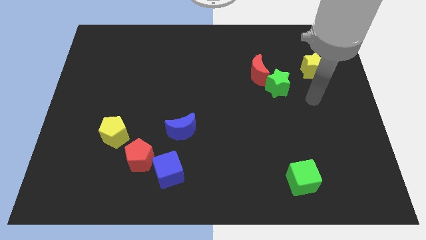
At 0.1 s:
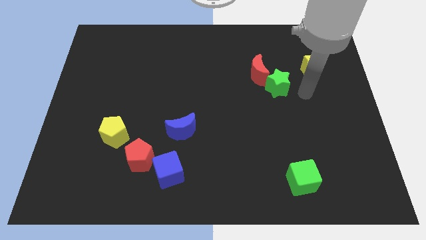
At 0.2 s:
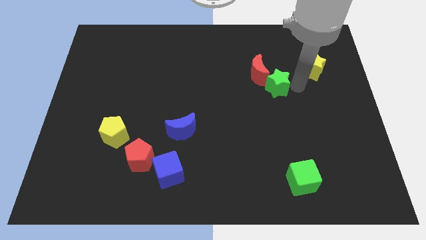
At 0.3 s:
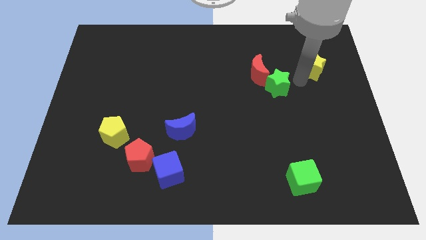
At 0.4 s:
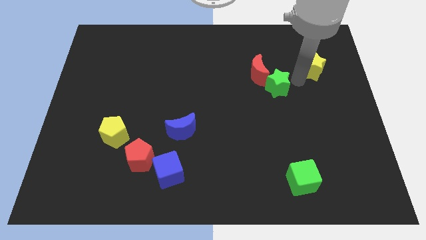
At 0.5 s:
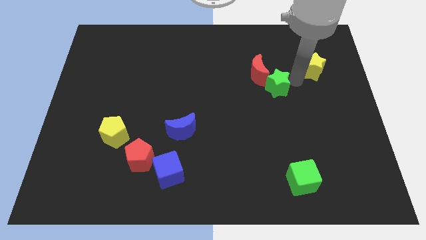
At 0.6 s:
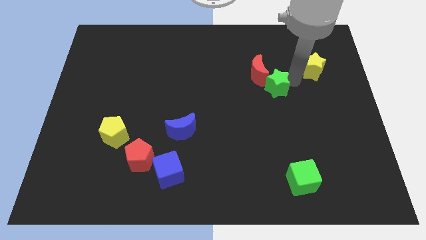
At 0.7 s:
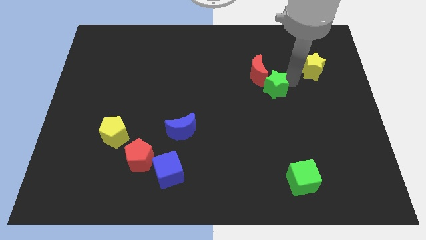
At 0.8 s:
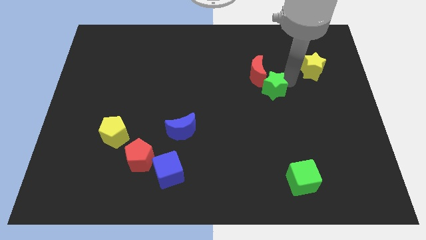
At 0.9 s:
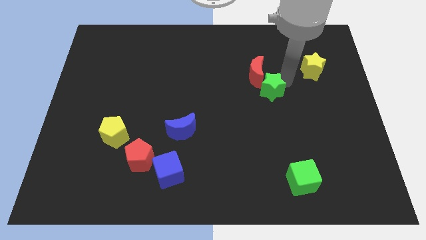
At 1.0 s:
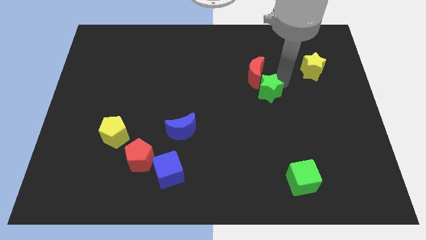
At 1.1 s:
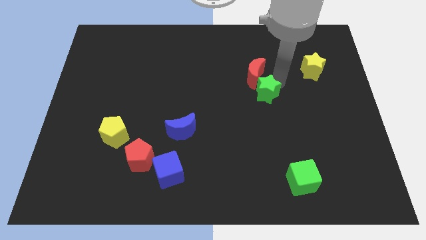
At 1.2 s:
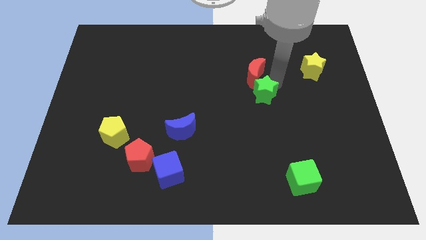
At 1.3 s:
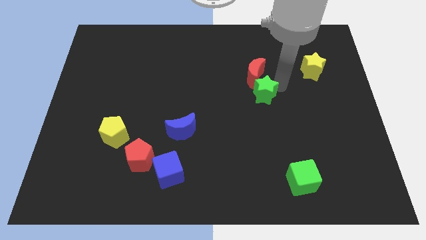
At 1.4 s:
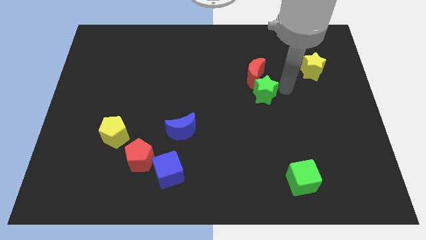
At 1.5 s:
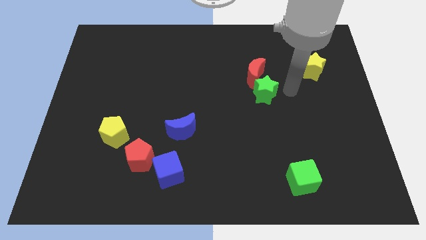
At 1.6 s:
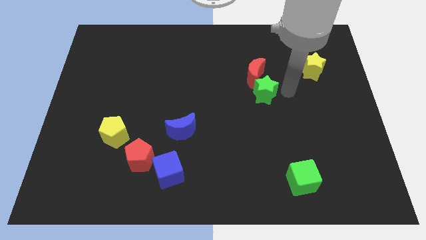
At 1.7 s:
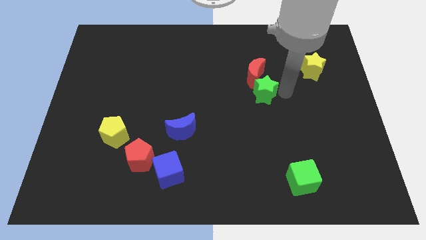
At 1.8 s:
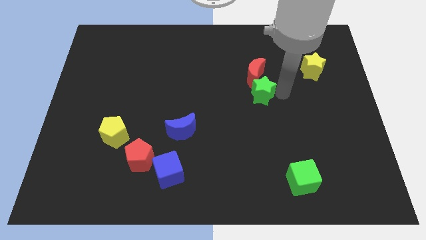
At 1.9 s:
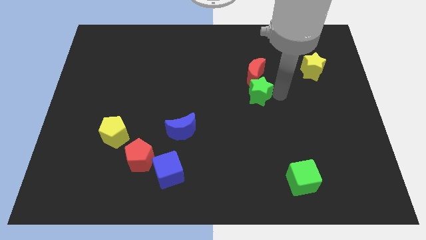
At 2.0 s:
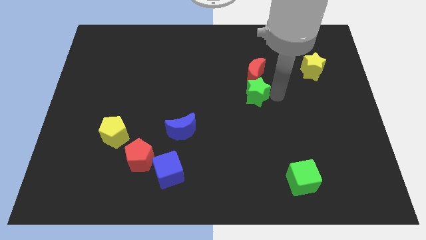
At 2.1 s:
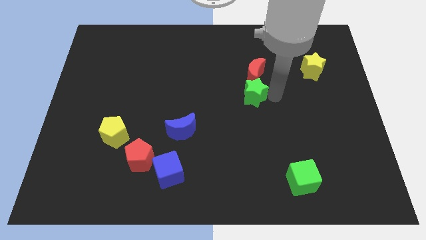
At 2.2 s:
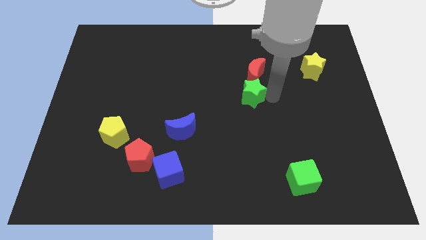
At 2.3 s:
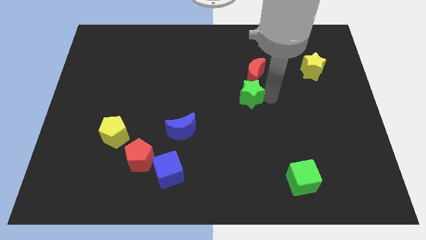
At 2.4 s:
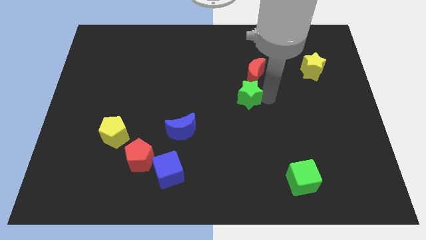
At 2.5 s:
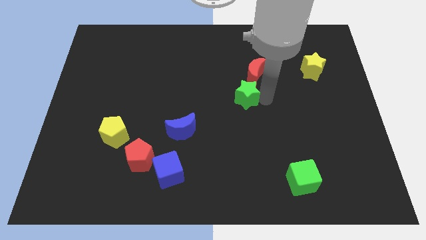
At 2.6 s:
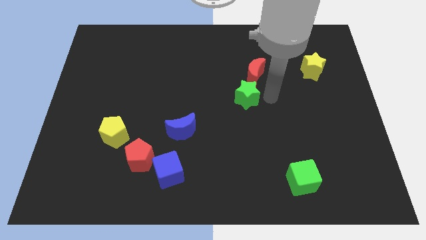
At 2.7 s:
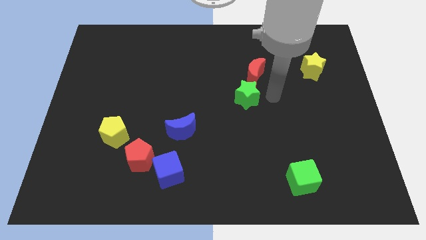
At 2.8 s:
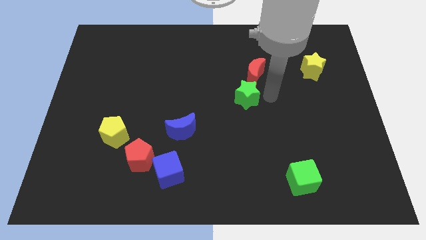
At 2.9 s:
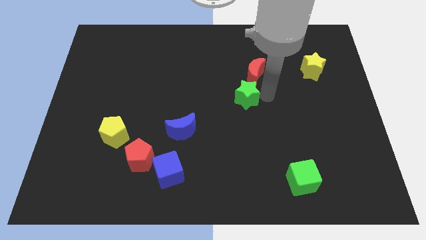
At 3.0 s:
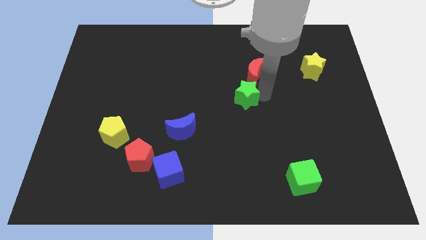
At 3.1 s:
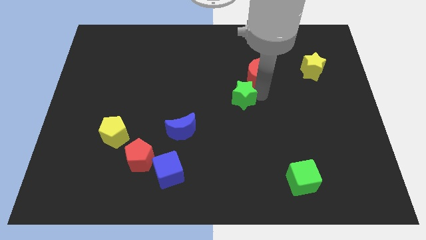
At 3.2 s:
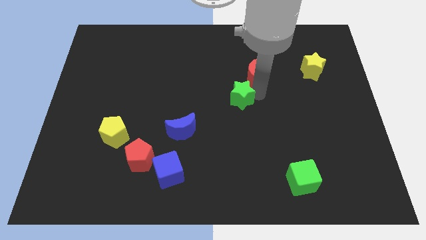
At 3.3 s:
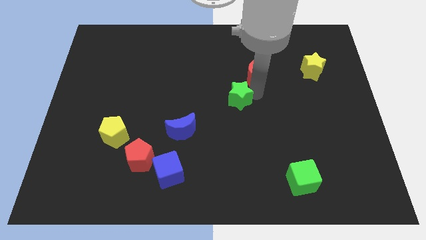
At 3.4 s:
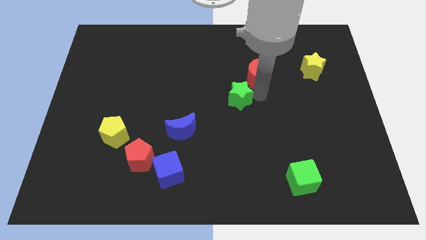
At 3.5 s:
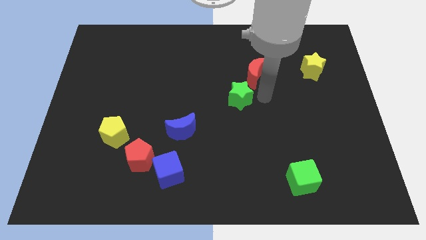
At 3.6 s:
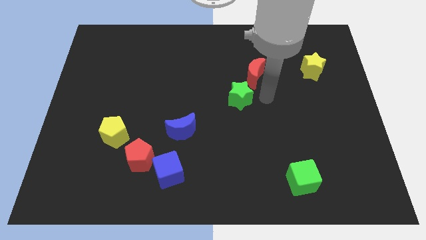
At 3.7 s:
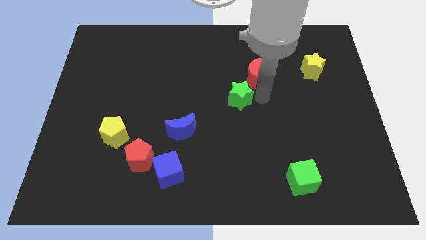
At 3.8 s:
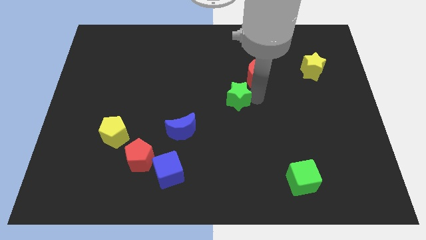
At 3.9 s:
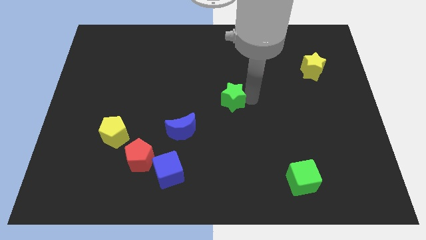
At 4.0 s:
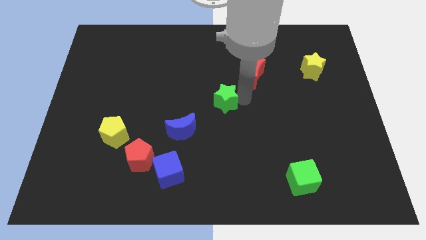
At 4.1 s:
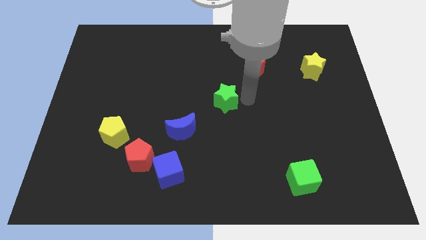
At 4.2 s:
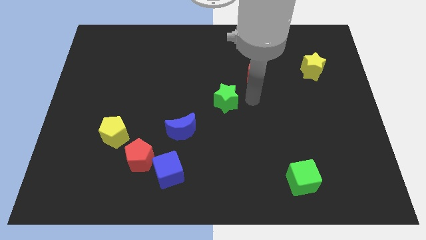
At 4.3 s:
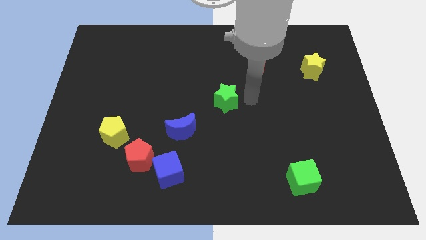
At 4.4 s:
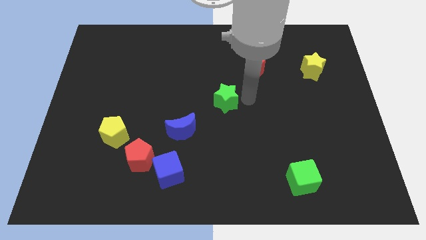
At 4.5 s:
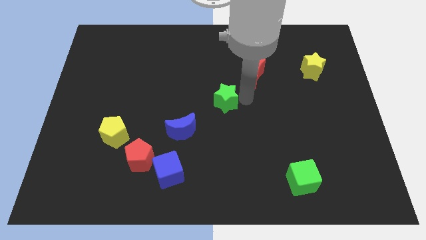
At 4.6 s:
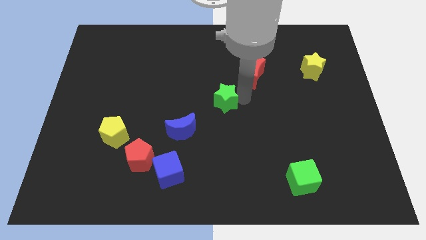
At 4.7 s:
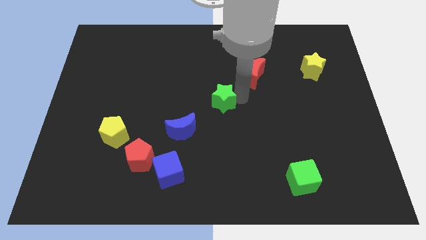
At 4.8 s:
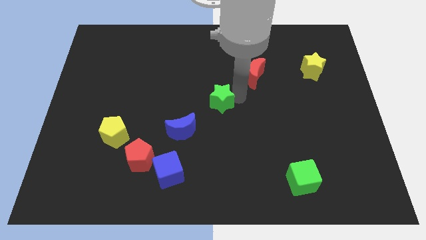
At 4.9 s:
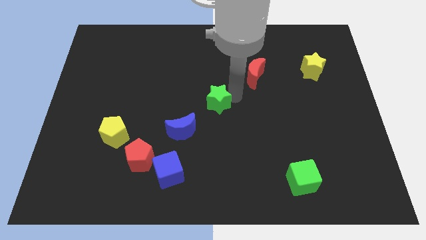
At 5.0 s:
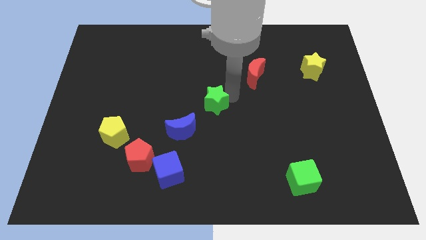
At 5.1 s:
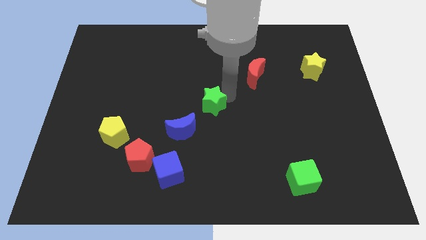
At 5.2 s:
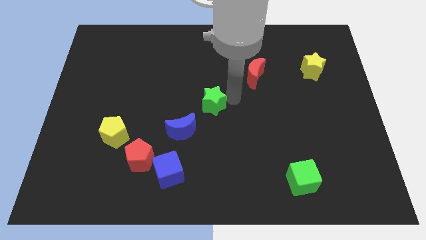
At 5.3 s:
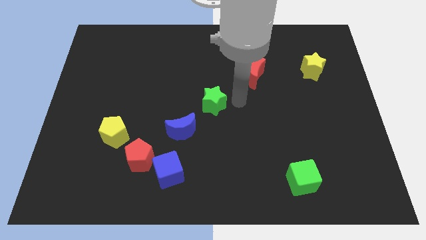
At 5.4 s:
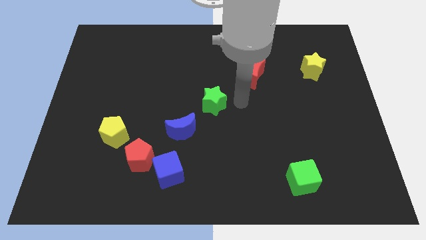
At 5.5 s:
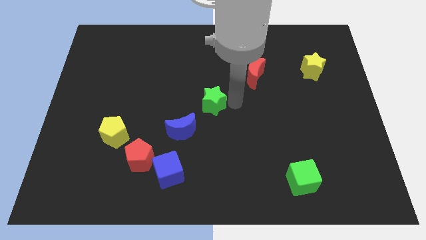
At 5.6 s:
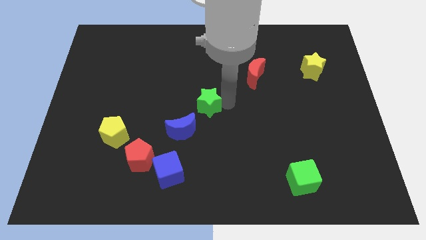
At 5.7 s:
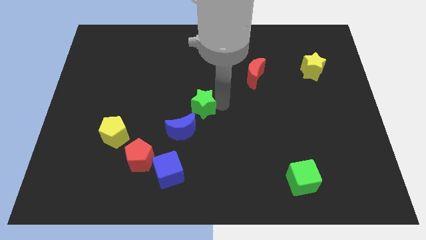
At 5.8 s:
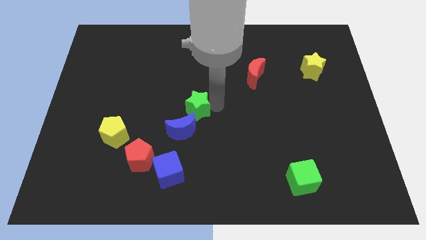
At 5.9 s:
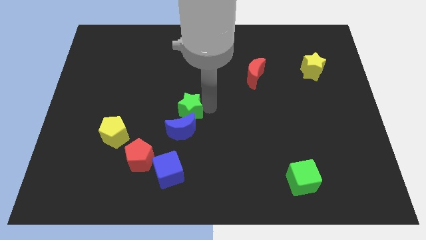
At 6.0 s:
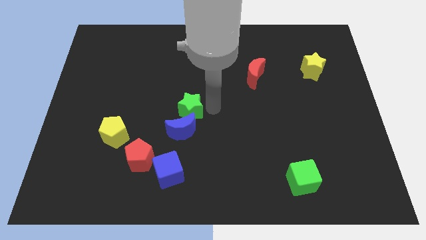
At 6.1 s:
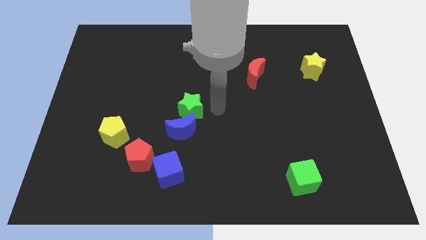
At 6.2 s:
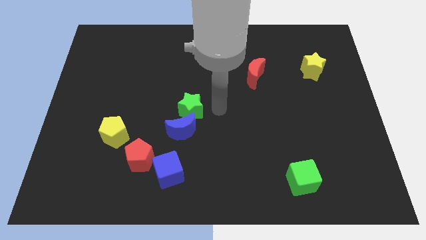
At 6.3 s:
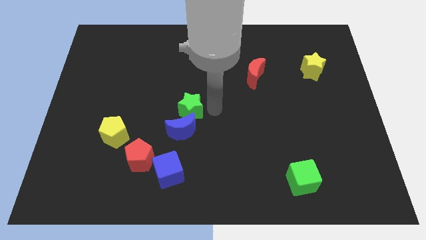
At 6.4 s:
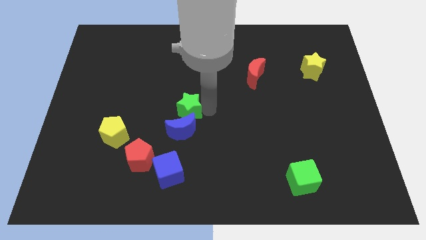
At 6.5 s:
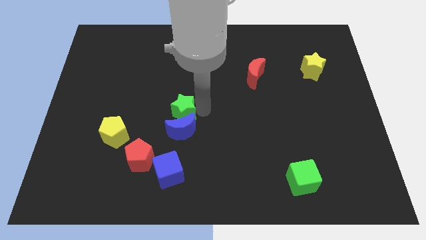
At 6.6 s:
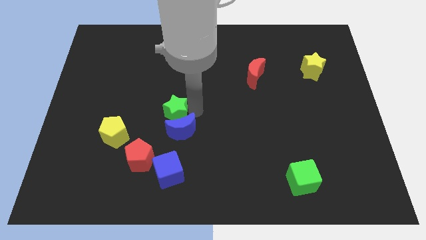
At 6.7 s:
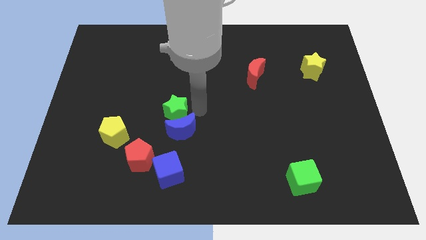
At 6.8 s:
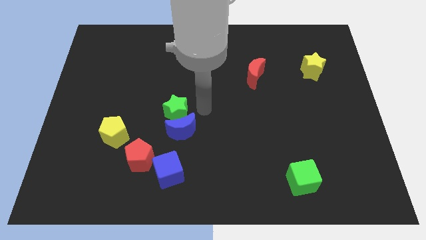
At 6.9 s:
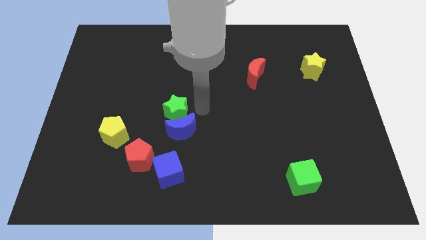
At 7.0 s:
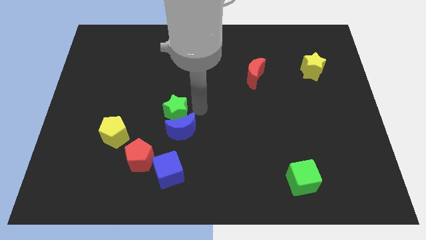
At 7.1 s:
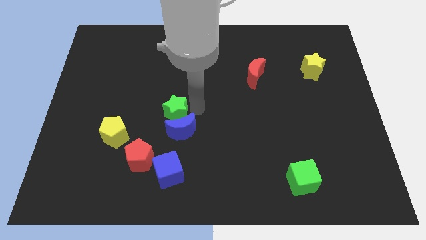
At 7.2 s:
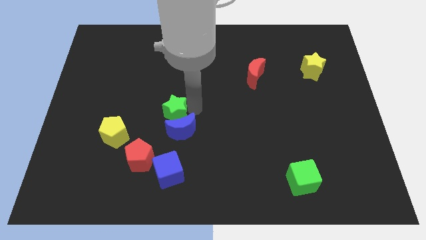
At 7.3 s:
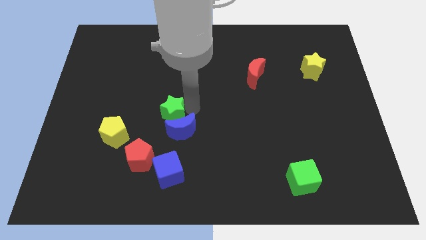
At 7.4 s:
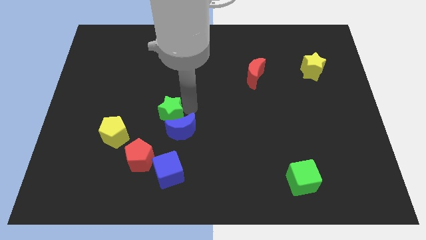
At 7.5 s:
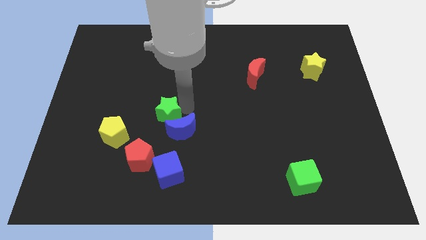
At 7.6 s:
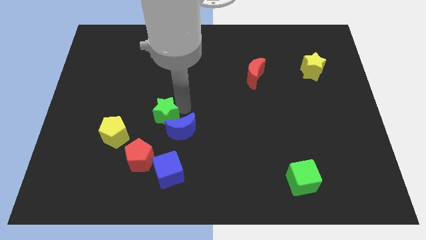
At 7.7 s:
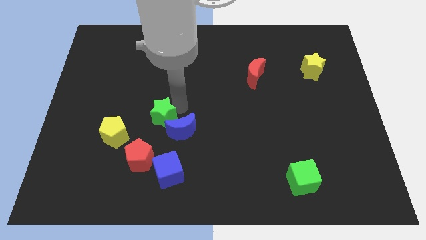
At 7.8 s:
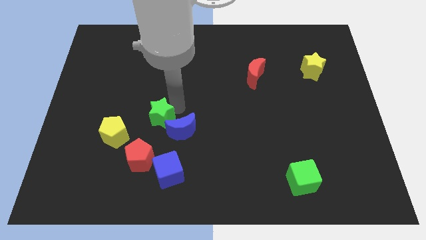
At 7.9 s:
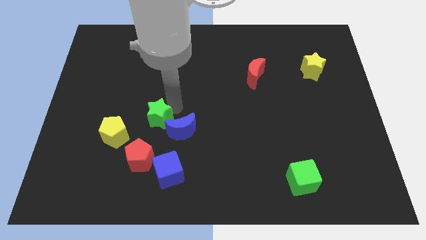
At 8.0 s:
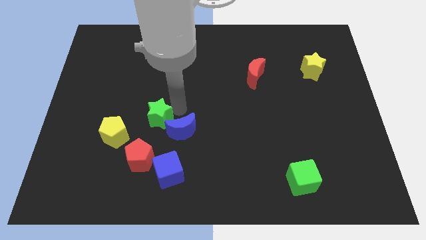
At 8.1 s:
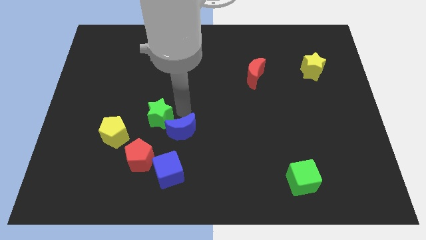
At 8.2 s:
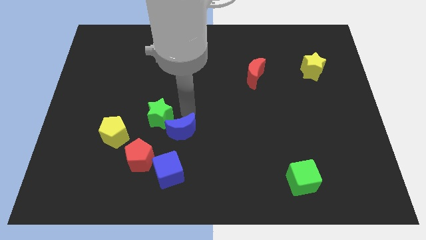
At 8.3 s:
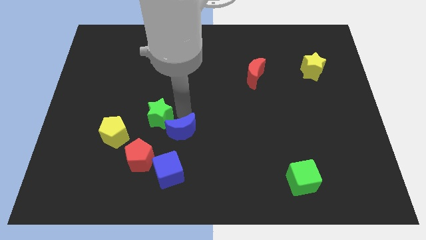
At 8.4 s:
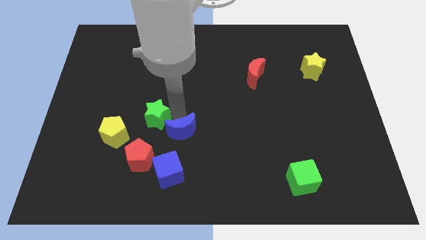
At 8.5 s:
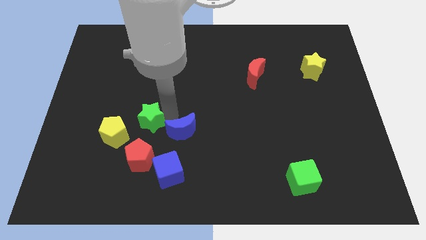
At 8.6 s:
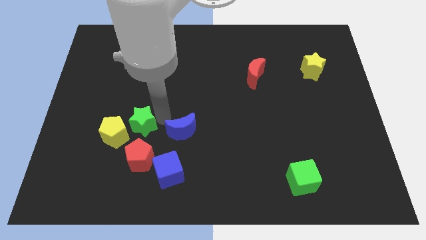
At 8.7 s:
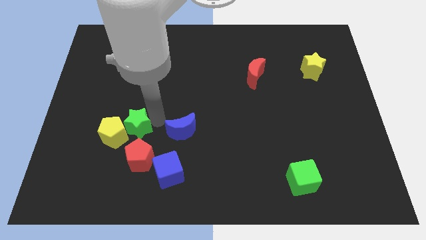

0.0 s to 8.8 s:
move the green star towards the yellow pentagon
